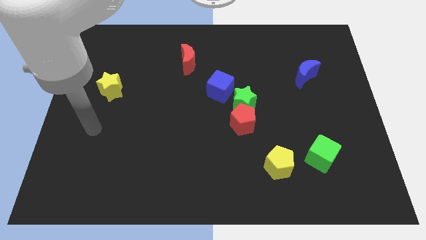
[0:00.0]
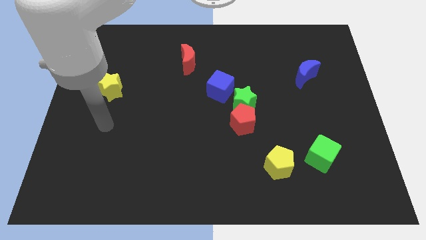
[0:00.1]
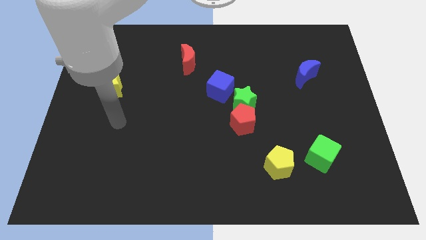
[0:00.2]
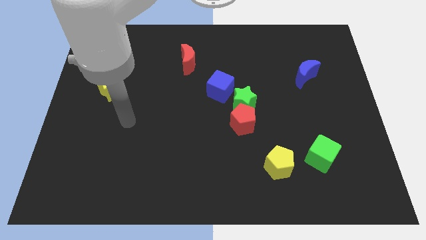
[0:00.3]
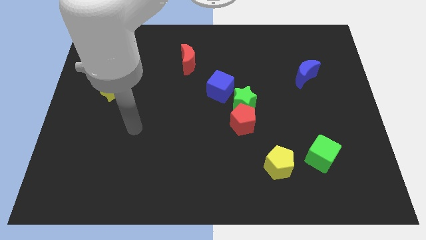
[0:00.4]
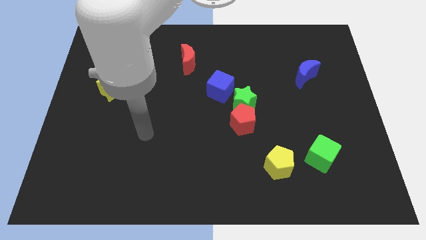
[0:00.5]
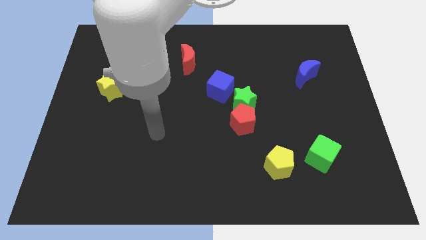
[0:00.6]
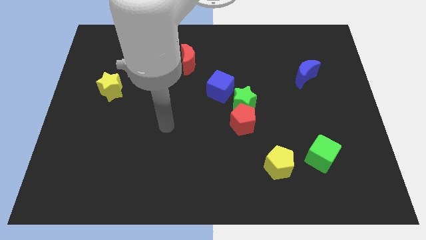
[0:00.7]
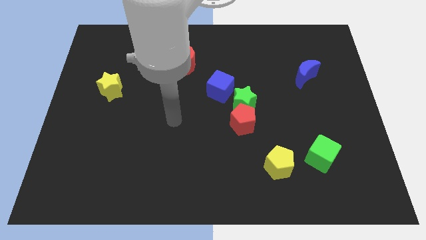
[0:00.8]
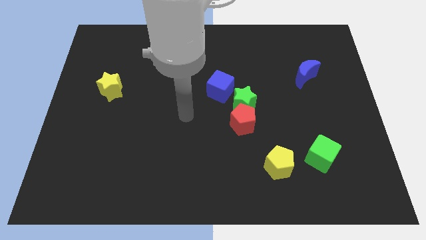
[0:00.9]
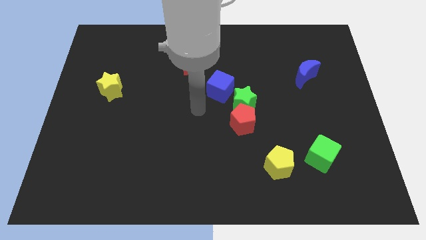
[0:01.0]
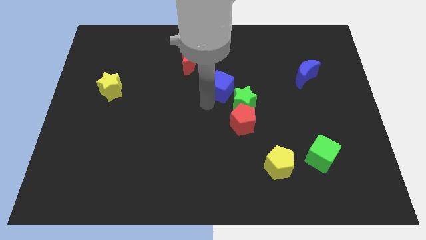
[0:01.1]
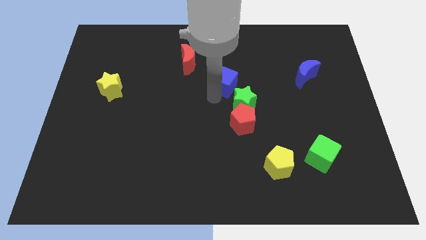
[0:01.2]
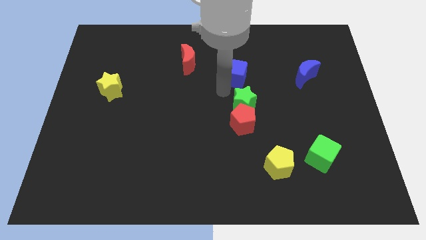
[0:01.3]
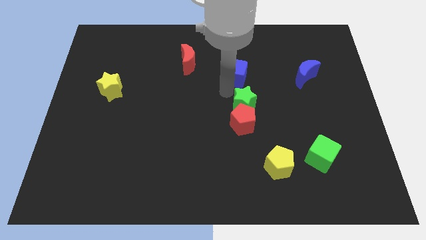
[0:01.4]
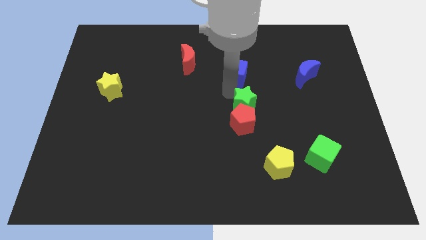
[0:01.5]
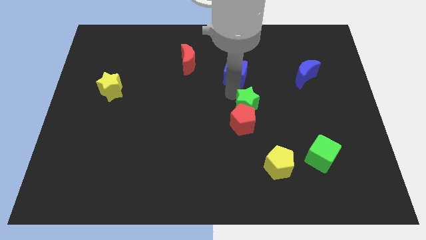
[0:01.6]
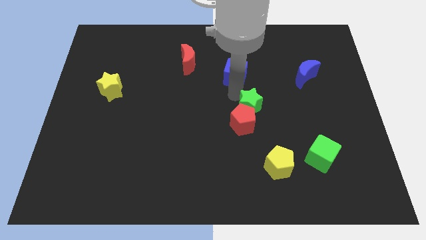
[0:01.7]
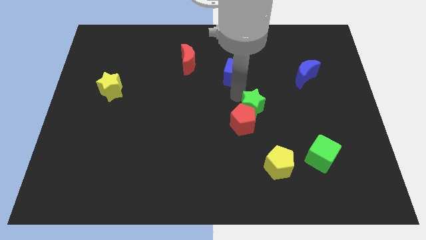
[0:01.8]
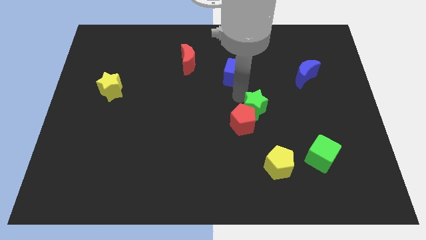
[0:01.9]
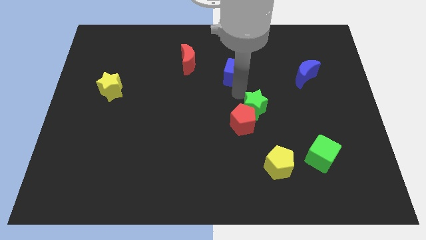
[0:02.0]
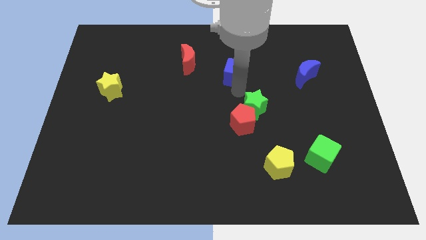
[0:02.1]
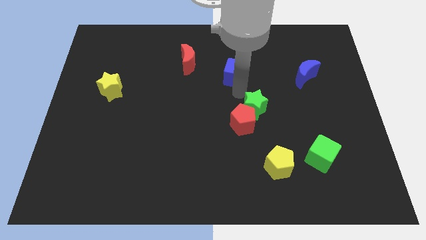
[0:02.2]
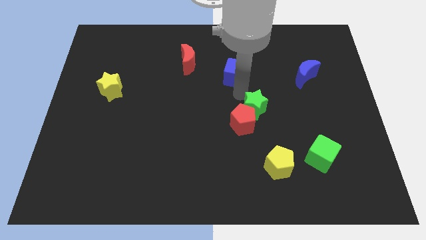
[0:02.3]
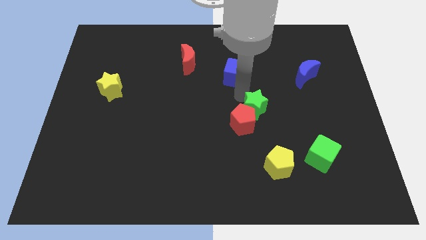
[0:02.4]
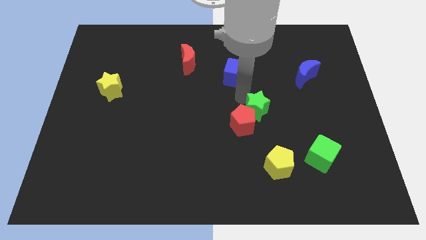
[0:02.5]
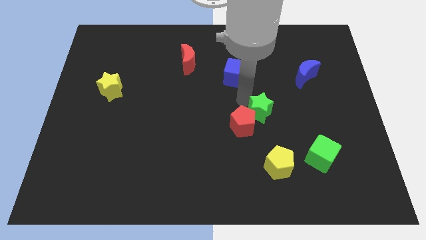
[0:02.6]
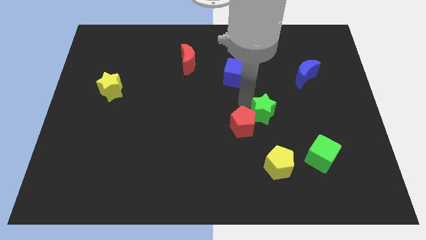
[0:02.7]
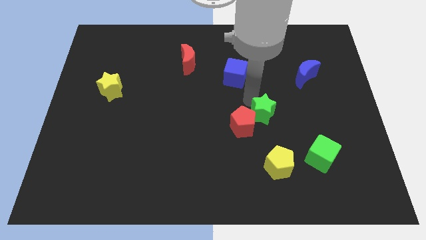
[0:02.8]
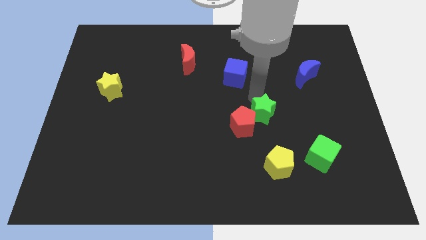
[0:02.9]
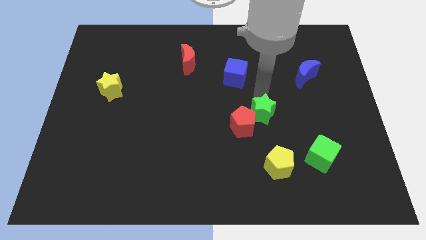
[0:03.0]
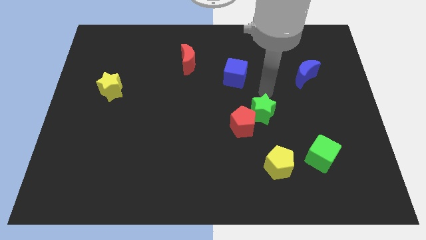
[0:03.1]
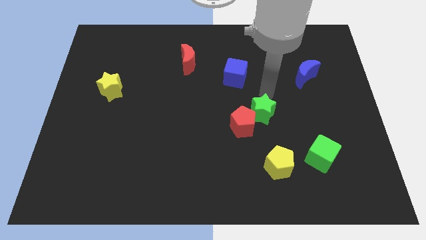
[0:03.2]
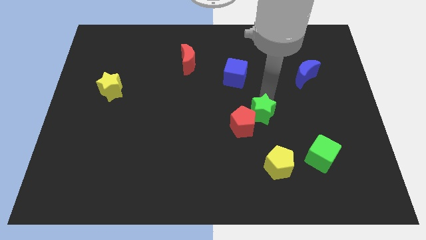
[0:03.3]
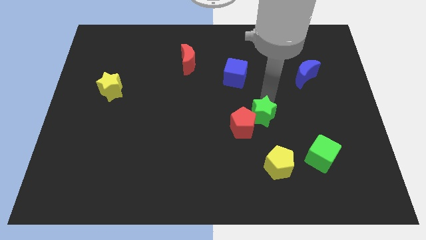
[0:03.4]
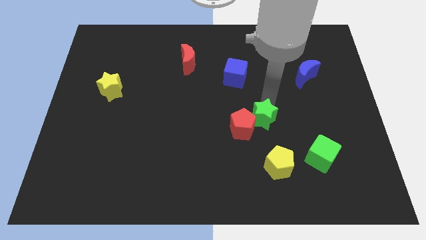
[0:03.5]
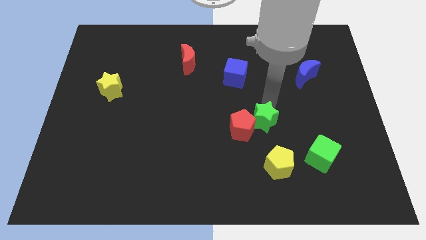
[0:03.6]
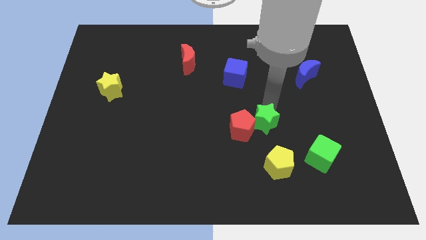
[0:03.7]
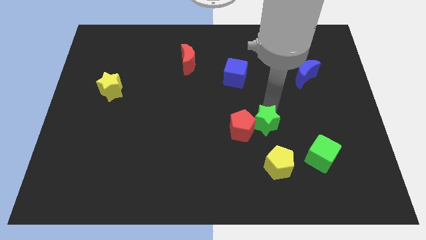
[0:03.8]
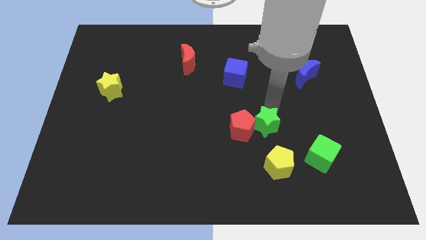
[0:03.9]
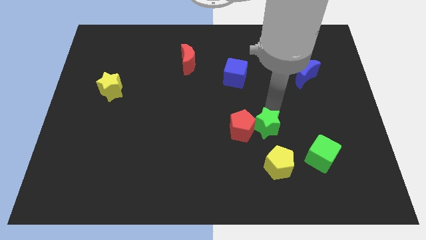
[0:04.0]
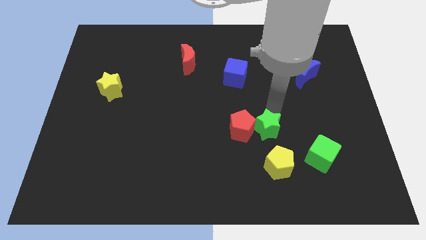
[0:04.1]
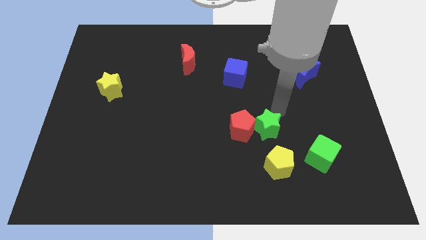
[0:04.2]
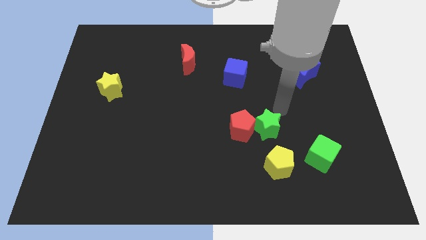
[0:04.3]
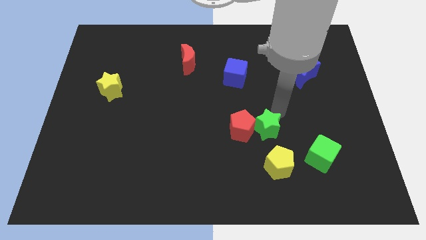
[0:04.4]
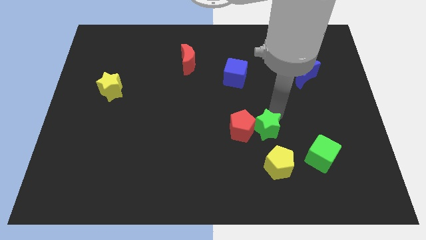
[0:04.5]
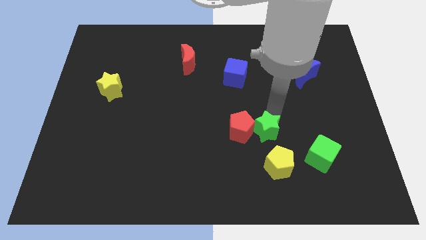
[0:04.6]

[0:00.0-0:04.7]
push the green star downwards slightly

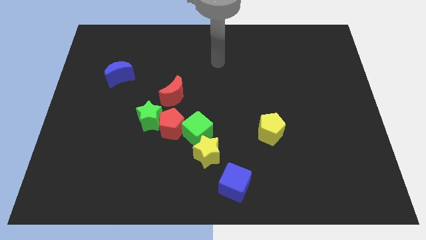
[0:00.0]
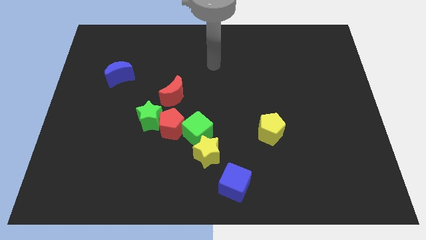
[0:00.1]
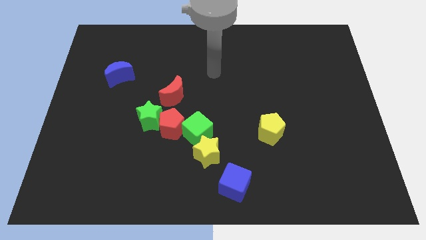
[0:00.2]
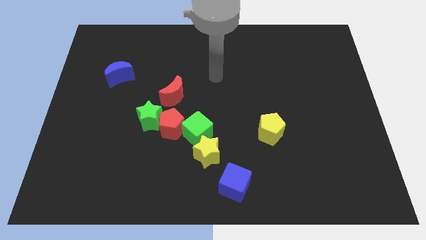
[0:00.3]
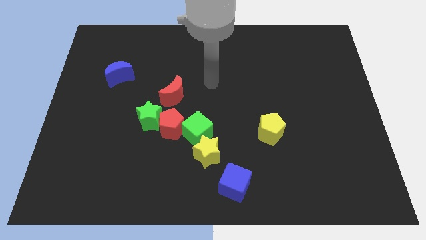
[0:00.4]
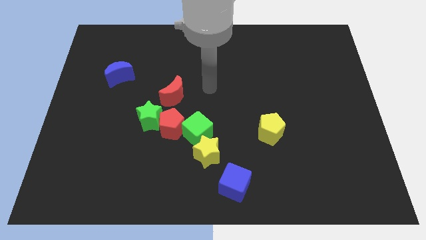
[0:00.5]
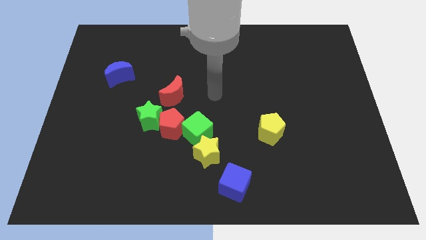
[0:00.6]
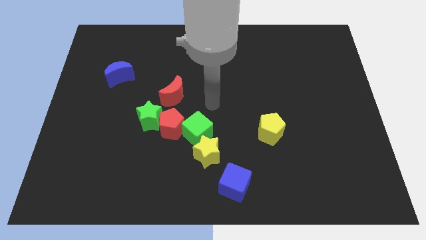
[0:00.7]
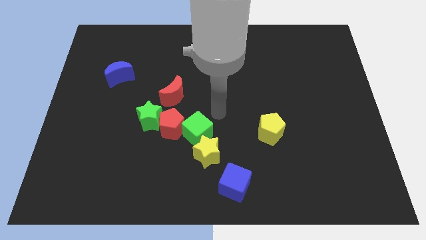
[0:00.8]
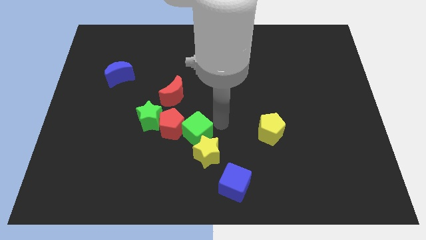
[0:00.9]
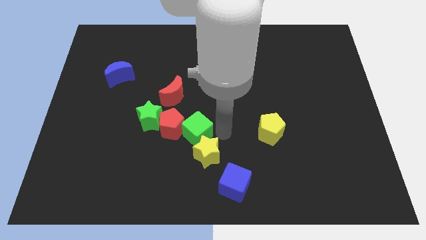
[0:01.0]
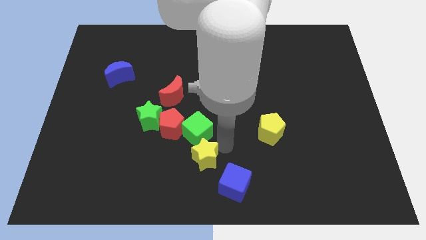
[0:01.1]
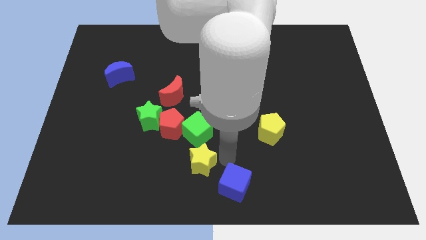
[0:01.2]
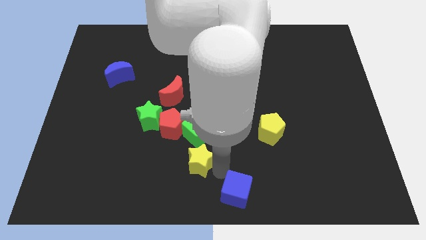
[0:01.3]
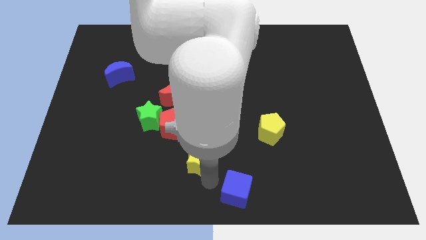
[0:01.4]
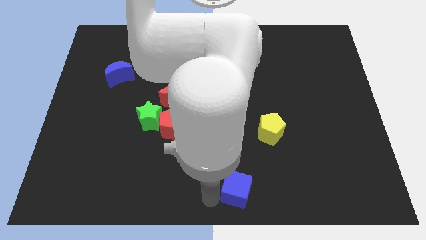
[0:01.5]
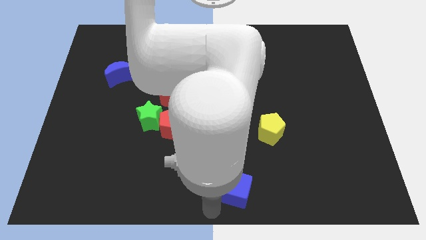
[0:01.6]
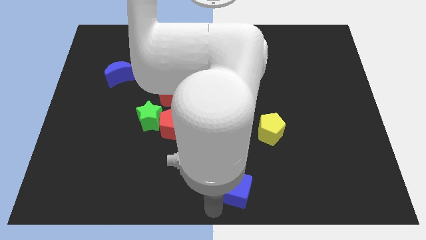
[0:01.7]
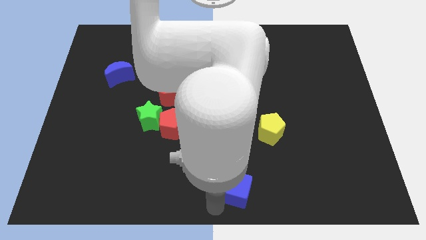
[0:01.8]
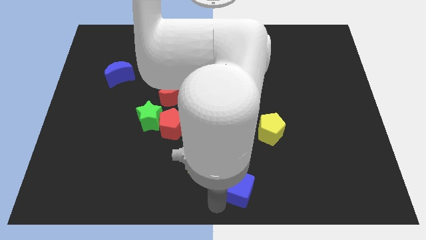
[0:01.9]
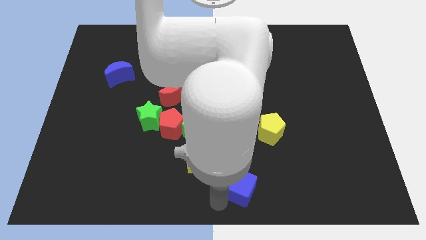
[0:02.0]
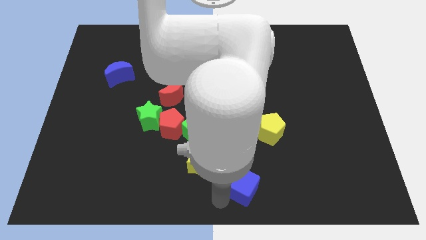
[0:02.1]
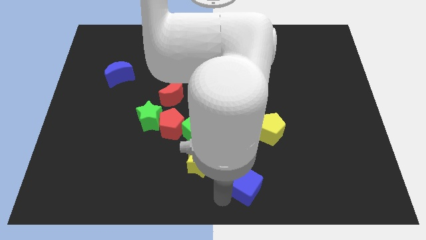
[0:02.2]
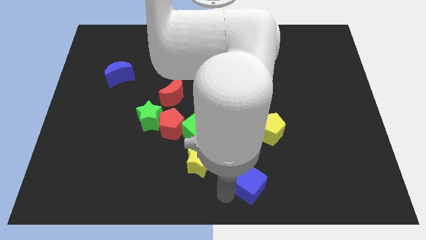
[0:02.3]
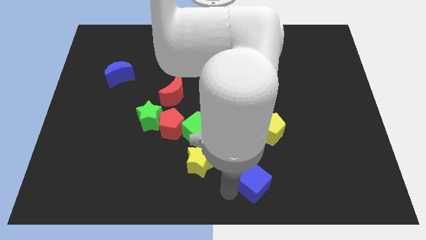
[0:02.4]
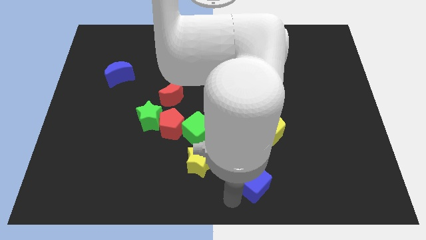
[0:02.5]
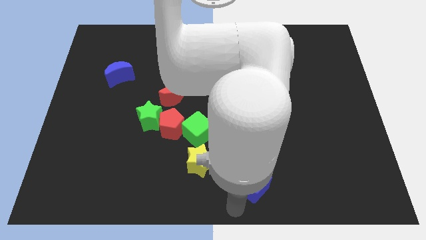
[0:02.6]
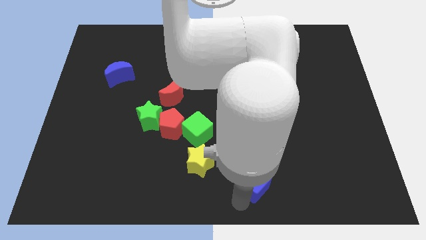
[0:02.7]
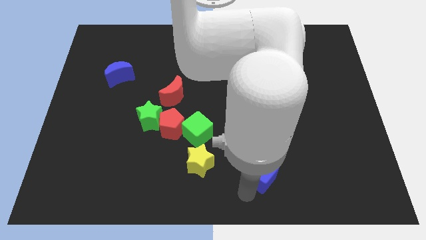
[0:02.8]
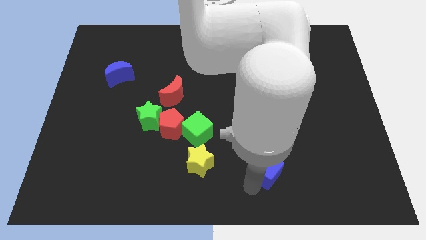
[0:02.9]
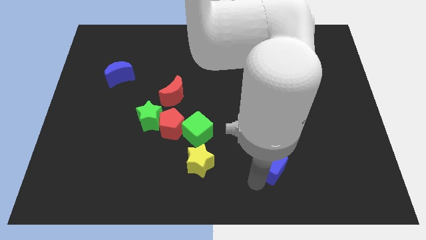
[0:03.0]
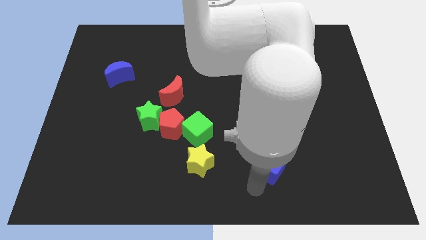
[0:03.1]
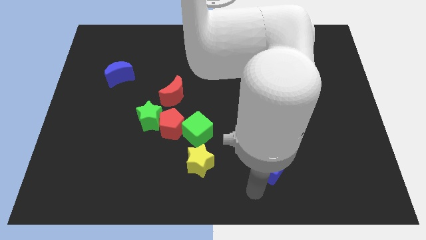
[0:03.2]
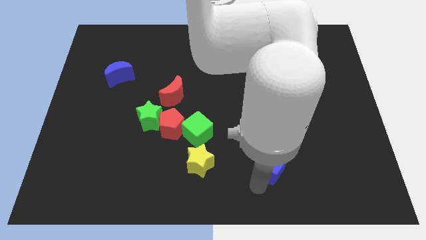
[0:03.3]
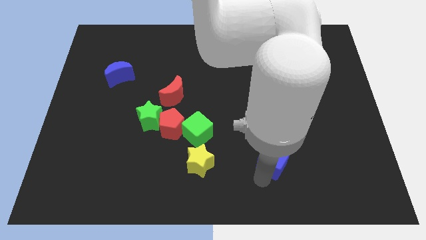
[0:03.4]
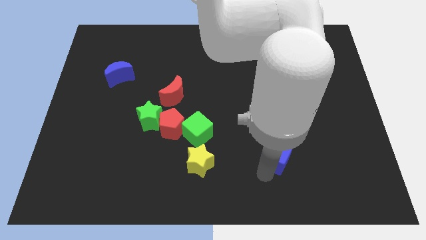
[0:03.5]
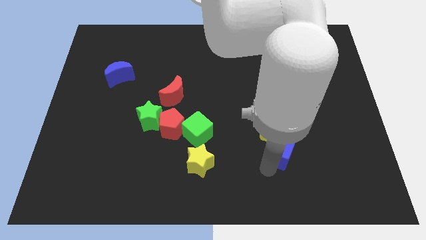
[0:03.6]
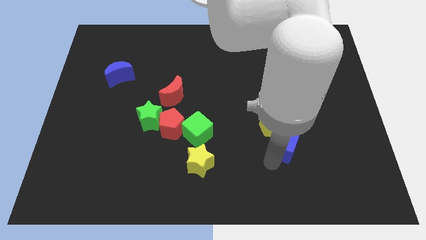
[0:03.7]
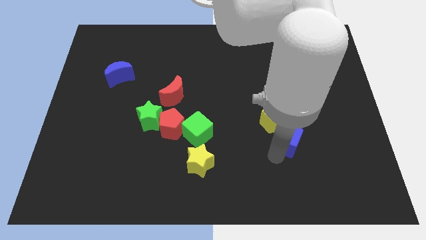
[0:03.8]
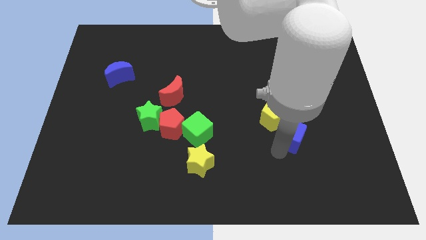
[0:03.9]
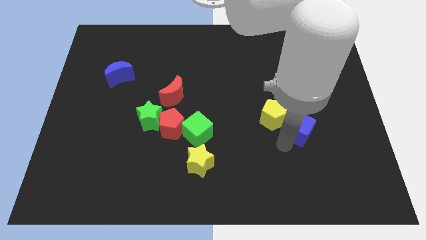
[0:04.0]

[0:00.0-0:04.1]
push the blue cube upwards and to the right diagonally
